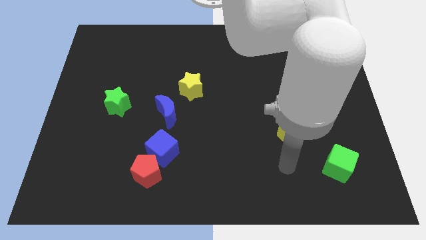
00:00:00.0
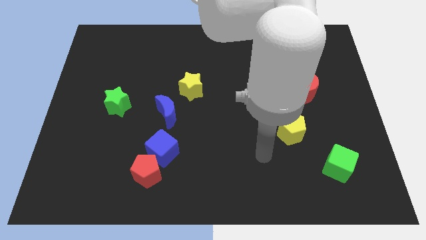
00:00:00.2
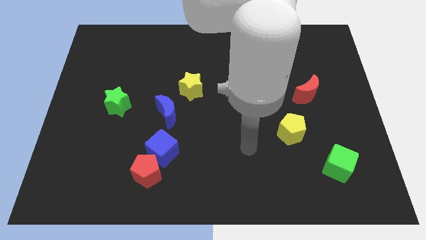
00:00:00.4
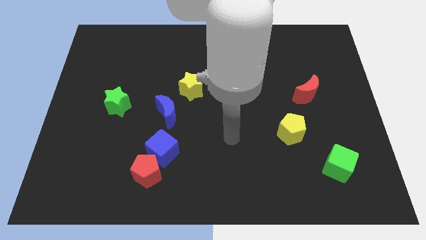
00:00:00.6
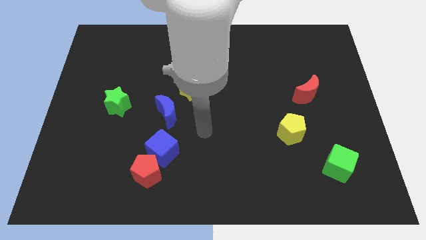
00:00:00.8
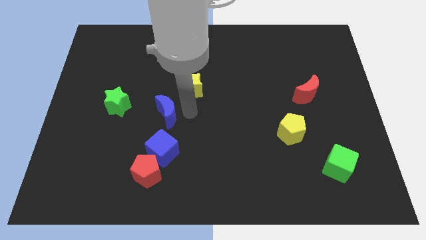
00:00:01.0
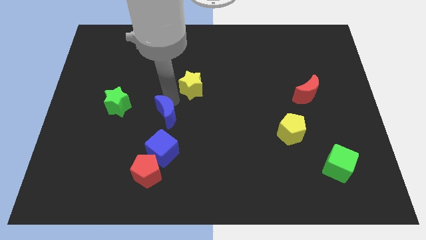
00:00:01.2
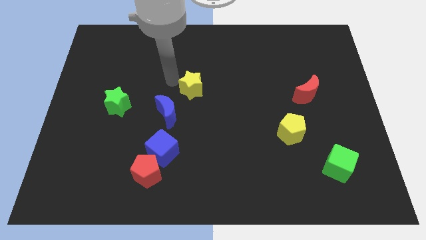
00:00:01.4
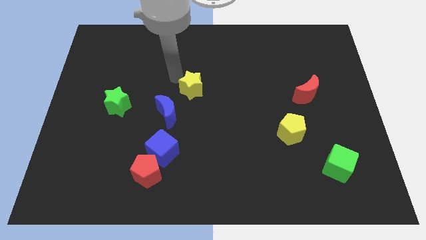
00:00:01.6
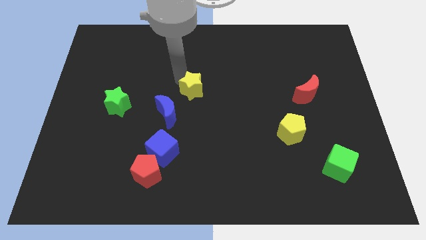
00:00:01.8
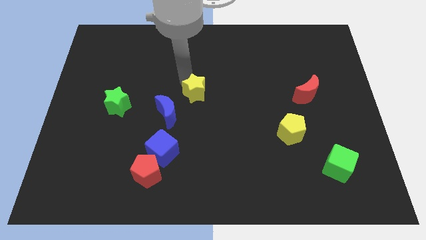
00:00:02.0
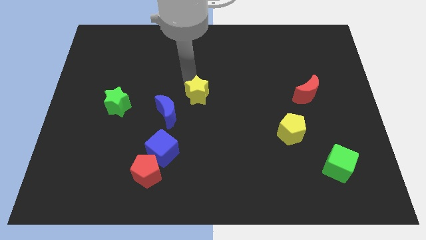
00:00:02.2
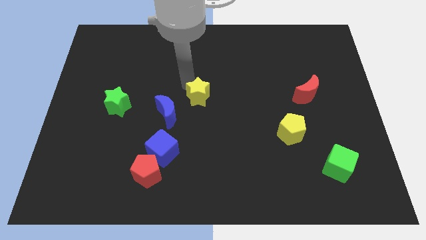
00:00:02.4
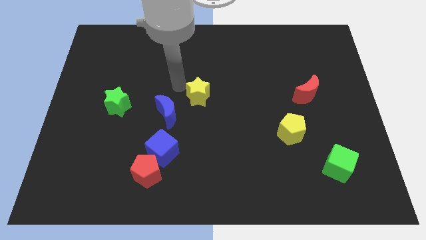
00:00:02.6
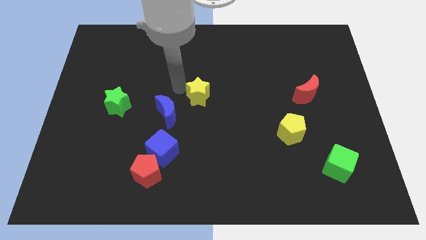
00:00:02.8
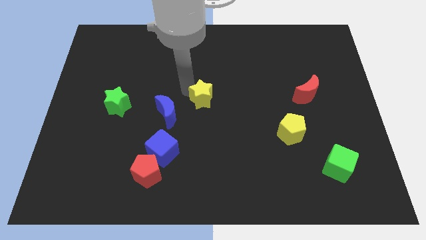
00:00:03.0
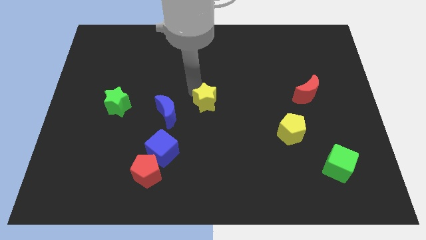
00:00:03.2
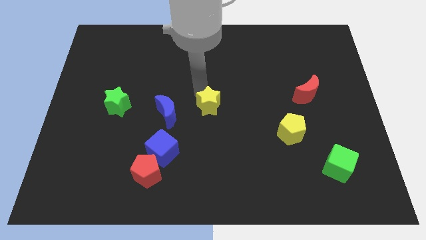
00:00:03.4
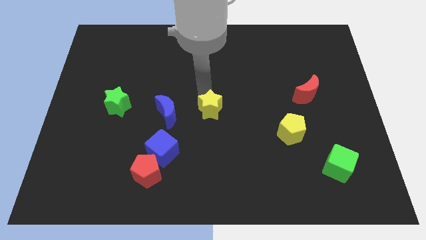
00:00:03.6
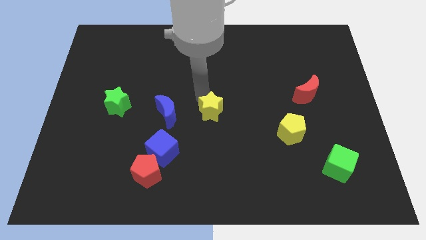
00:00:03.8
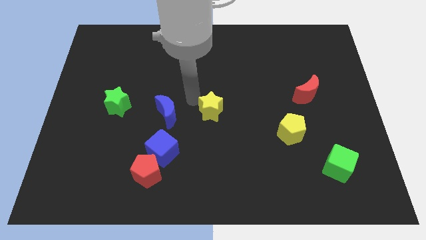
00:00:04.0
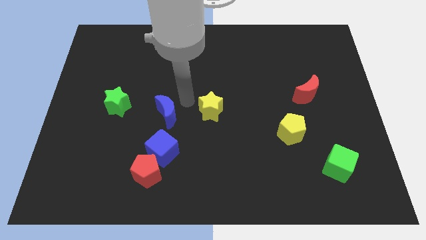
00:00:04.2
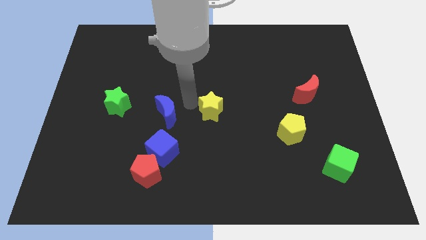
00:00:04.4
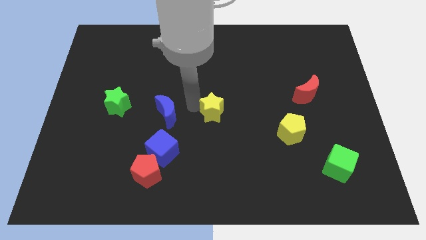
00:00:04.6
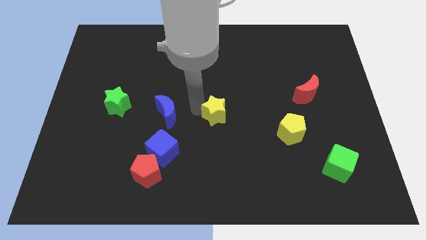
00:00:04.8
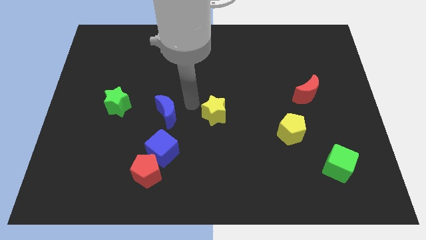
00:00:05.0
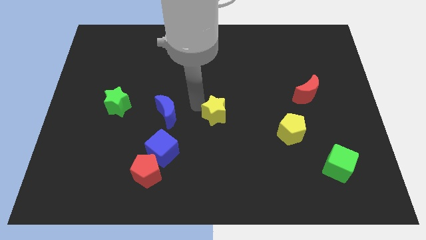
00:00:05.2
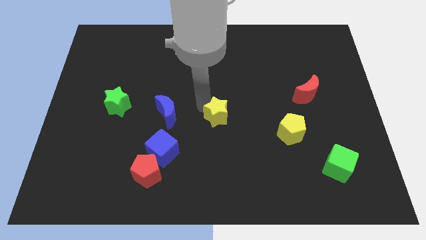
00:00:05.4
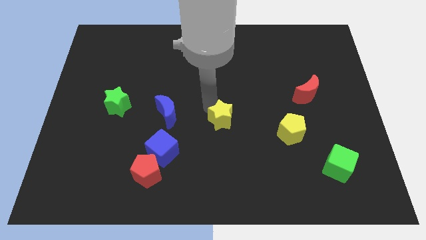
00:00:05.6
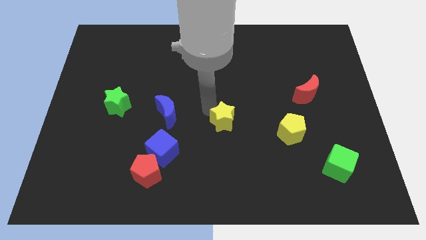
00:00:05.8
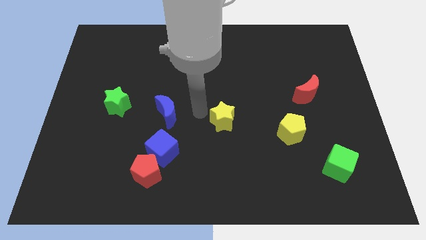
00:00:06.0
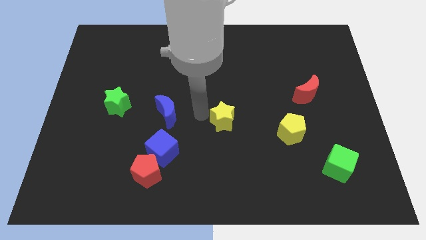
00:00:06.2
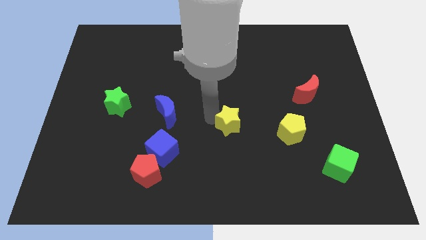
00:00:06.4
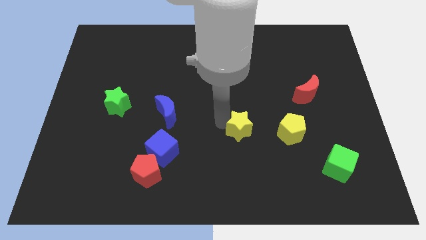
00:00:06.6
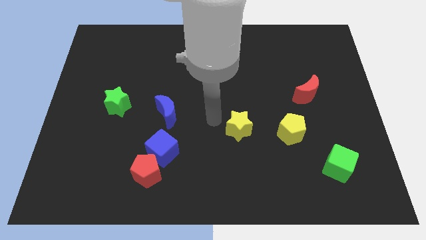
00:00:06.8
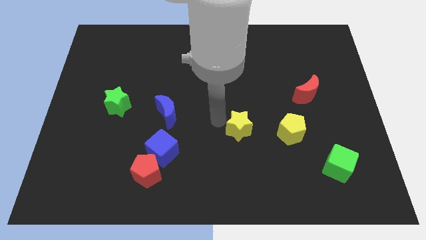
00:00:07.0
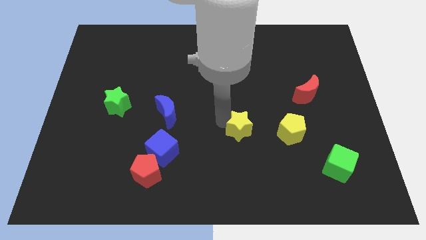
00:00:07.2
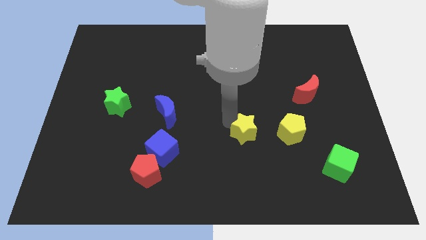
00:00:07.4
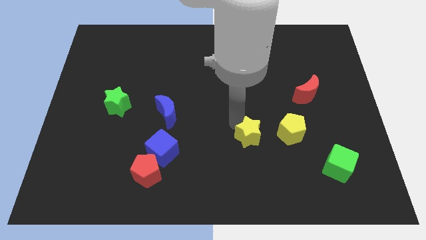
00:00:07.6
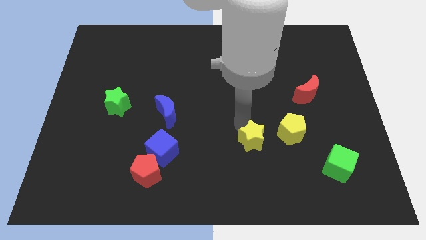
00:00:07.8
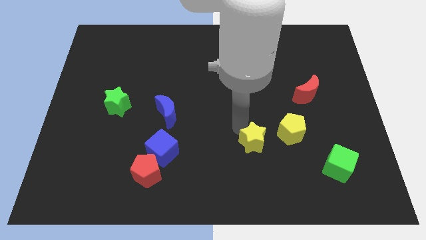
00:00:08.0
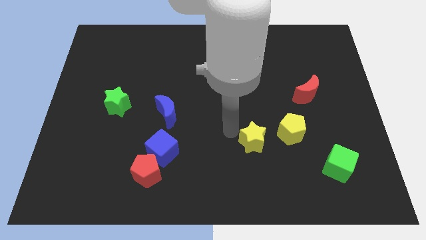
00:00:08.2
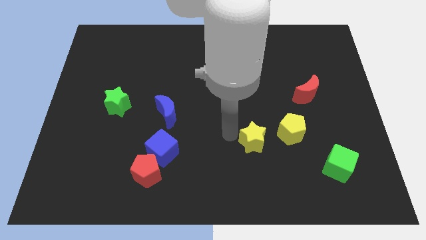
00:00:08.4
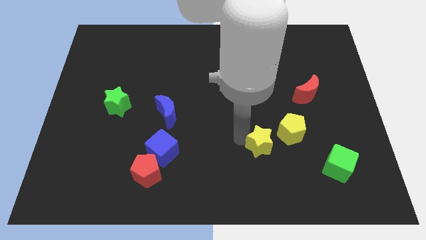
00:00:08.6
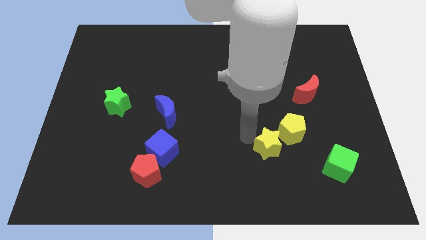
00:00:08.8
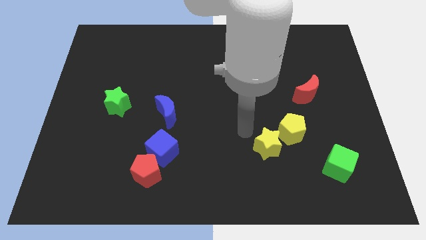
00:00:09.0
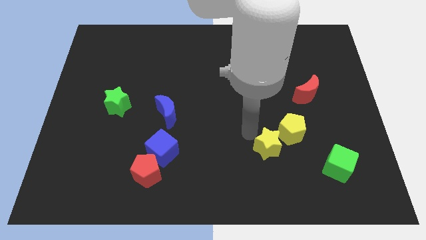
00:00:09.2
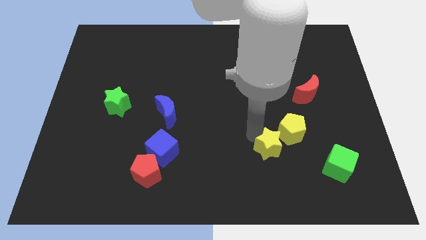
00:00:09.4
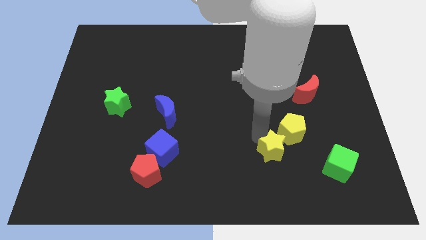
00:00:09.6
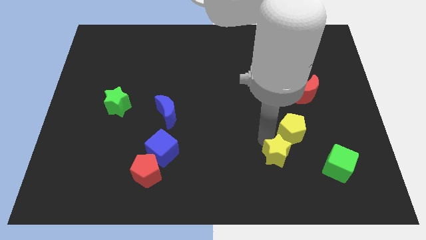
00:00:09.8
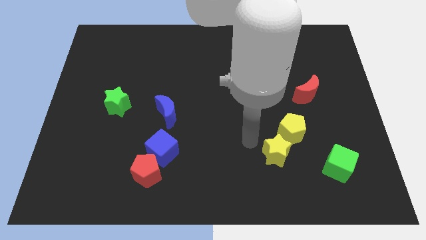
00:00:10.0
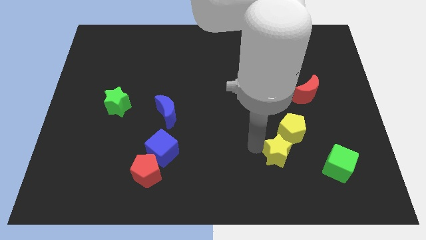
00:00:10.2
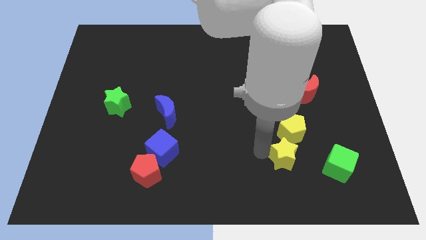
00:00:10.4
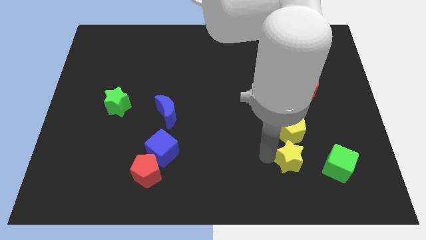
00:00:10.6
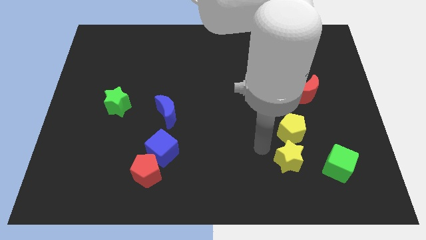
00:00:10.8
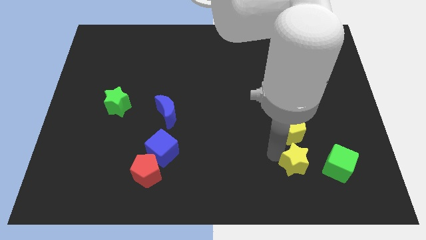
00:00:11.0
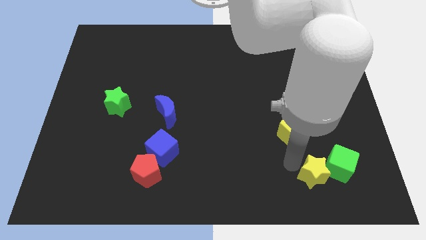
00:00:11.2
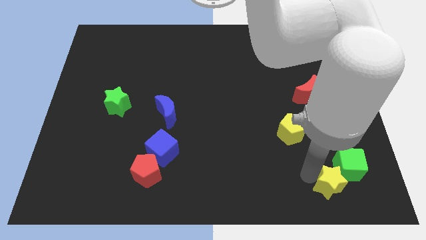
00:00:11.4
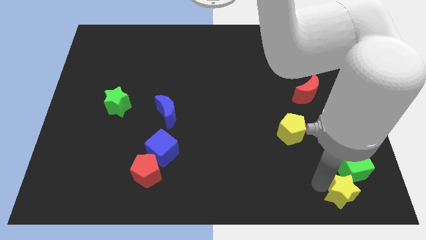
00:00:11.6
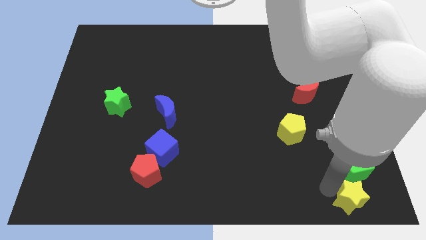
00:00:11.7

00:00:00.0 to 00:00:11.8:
push the yellow star to the bottom right corner
